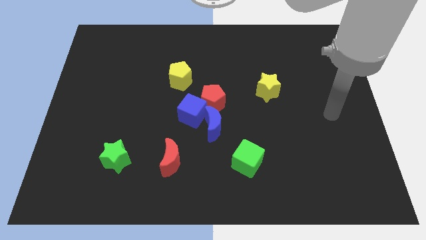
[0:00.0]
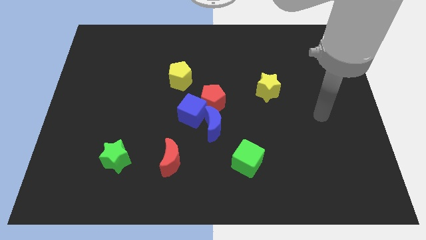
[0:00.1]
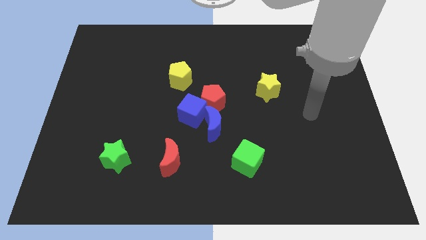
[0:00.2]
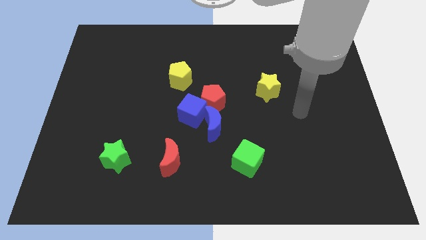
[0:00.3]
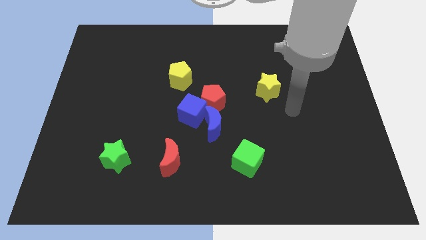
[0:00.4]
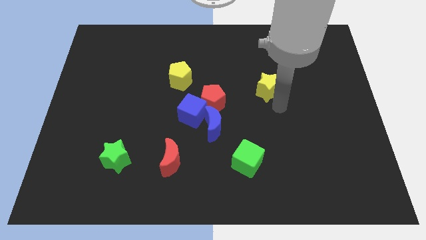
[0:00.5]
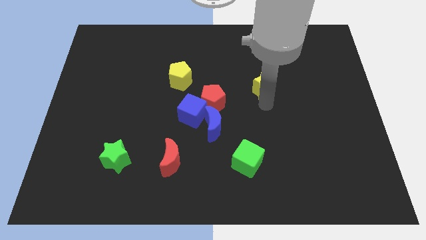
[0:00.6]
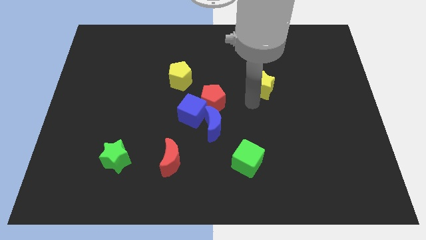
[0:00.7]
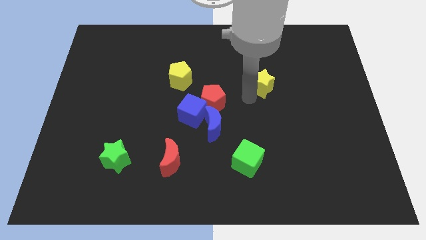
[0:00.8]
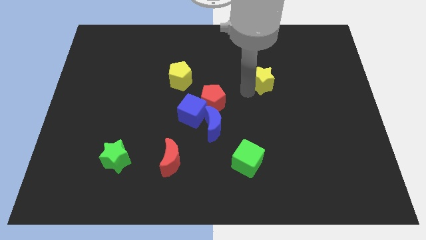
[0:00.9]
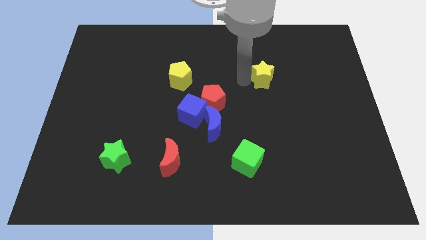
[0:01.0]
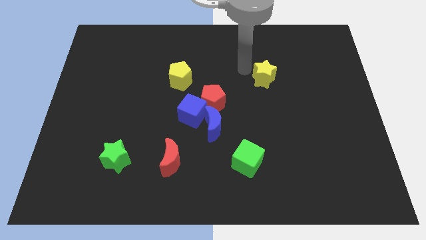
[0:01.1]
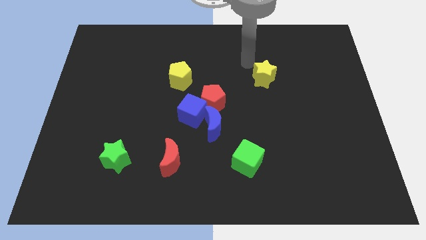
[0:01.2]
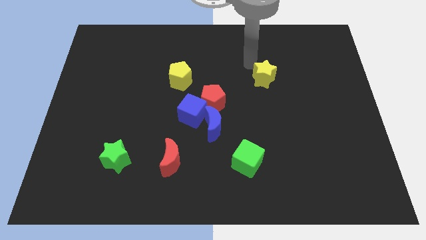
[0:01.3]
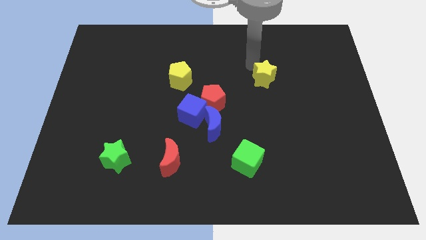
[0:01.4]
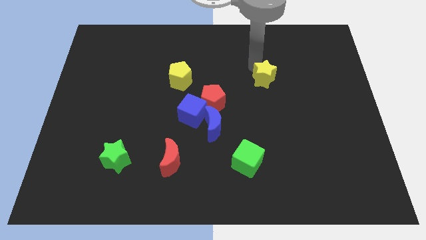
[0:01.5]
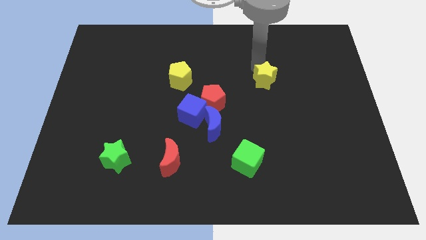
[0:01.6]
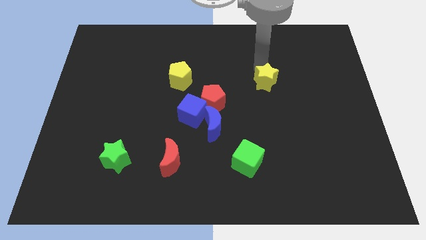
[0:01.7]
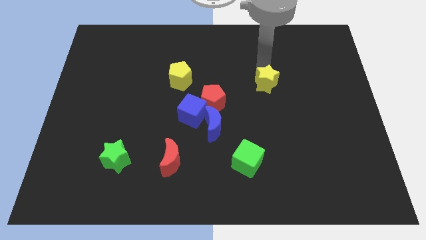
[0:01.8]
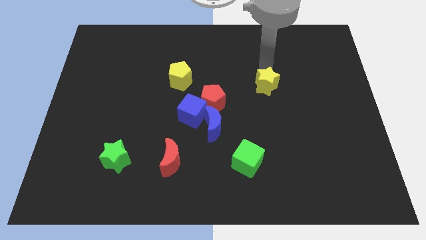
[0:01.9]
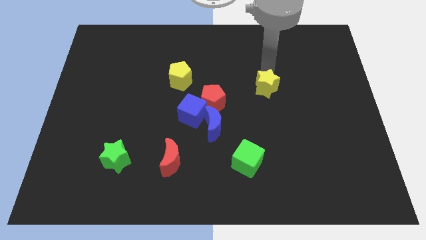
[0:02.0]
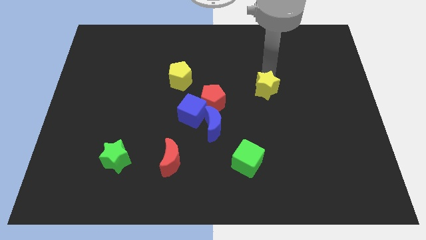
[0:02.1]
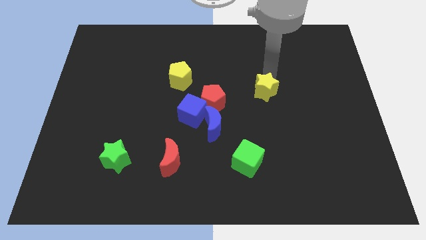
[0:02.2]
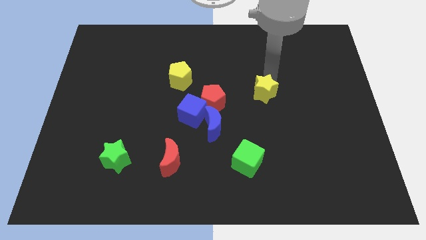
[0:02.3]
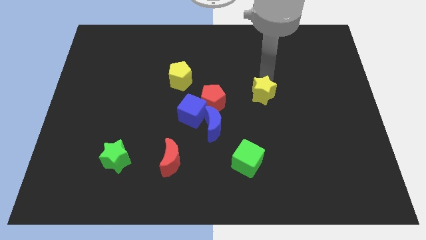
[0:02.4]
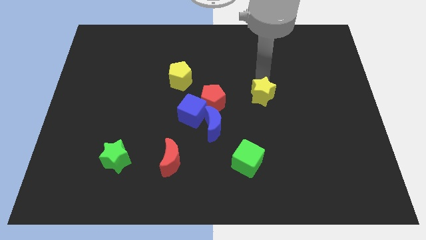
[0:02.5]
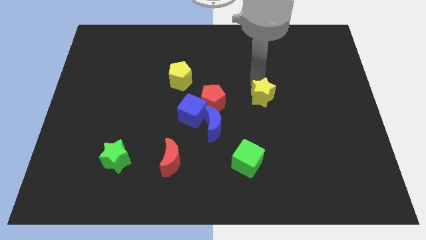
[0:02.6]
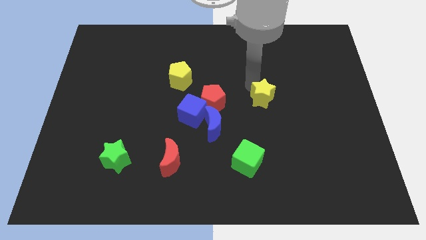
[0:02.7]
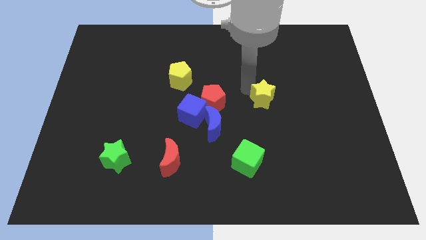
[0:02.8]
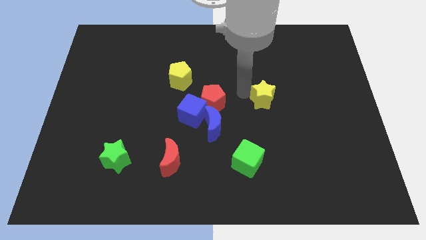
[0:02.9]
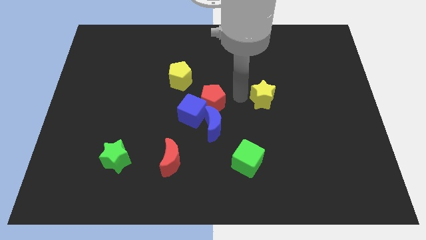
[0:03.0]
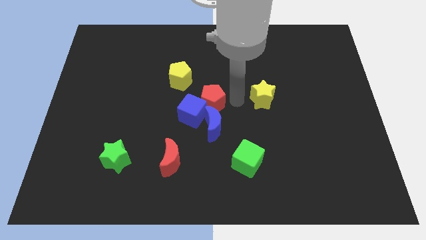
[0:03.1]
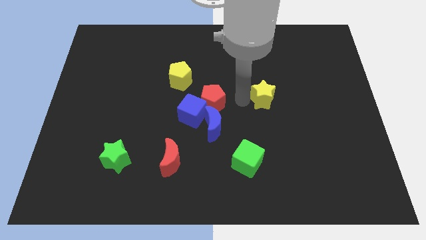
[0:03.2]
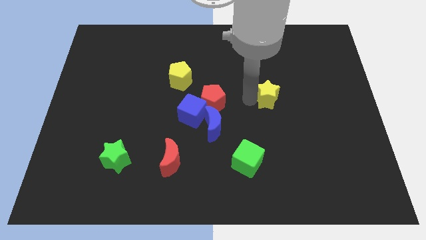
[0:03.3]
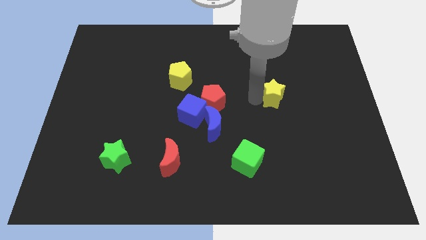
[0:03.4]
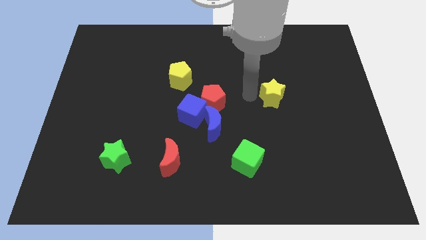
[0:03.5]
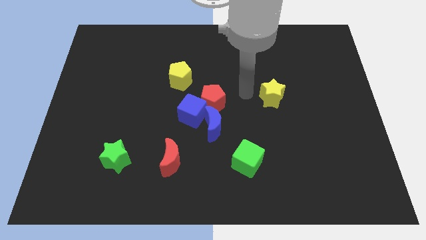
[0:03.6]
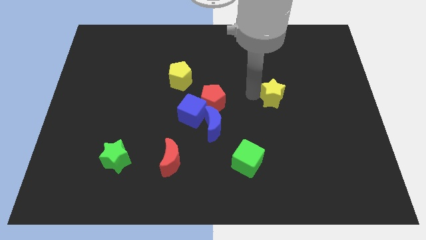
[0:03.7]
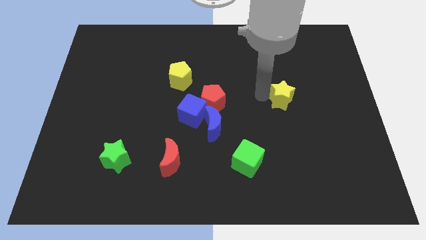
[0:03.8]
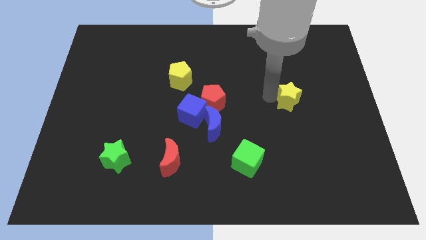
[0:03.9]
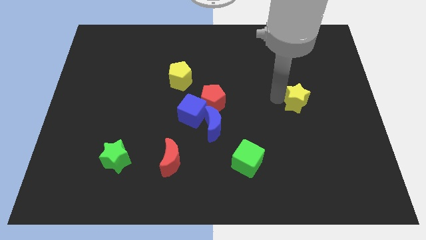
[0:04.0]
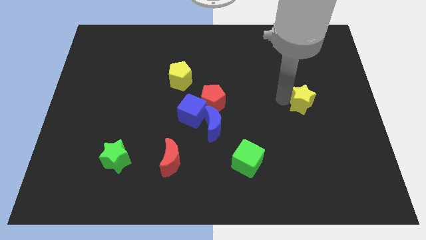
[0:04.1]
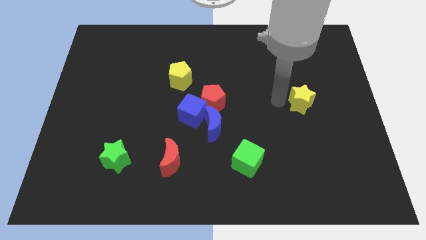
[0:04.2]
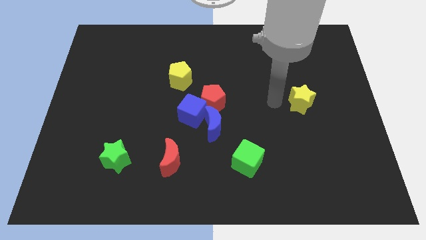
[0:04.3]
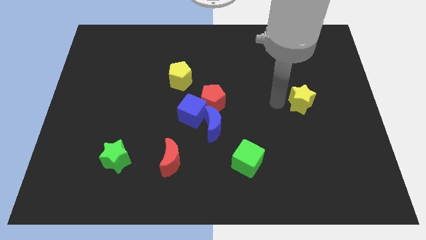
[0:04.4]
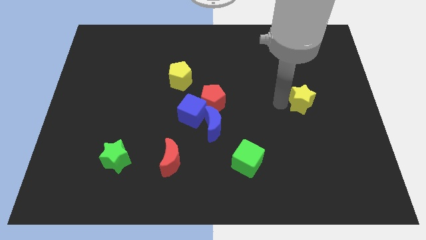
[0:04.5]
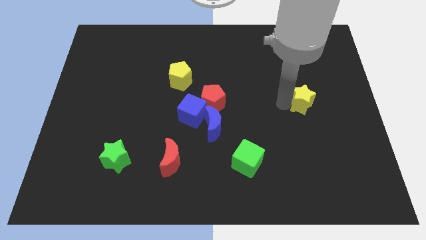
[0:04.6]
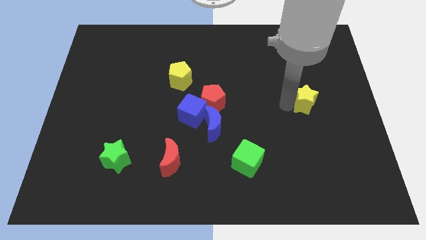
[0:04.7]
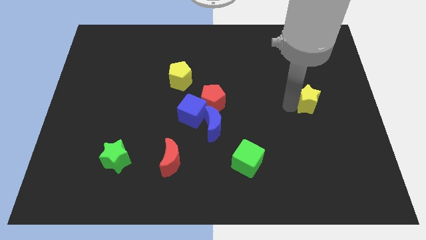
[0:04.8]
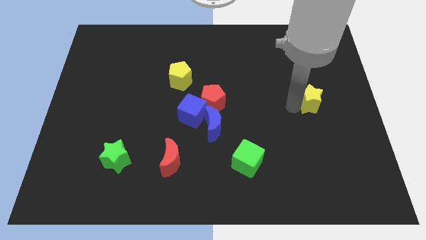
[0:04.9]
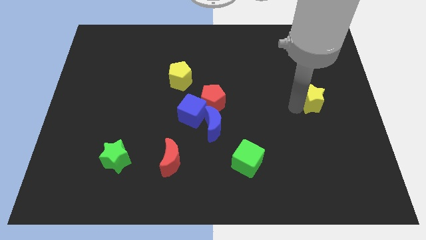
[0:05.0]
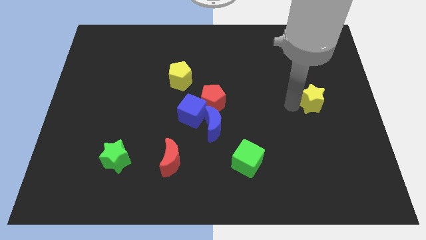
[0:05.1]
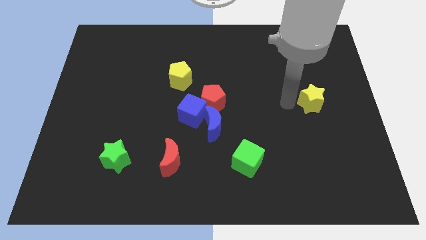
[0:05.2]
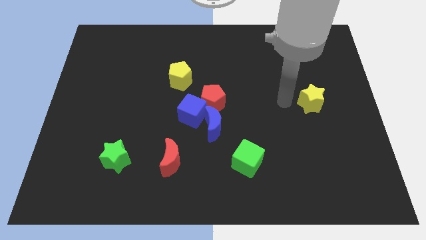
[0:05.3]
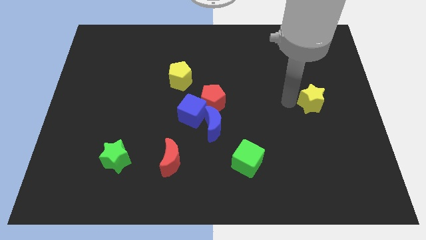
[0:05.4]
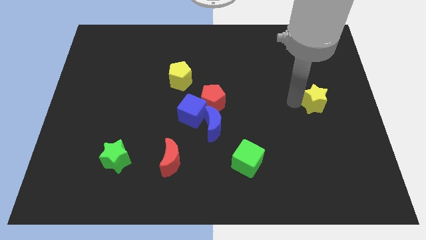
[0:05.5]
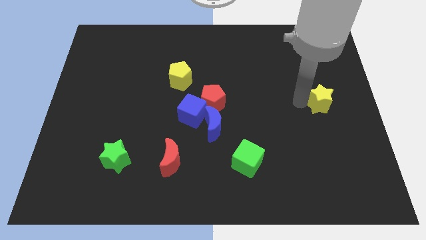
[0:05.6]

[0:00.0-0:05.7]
slide the yellow star to the right side of the board

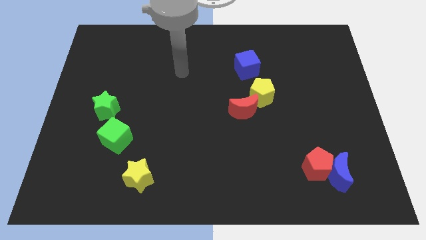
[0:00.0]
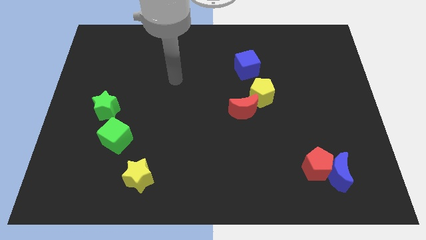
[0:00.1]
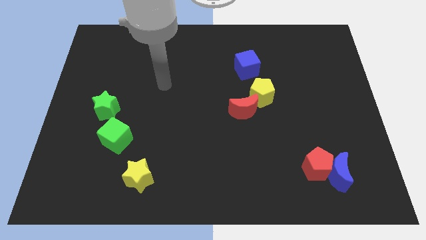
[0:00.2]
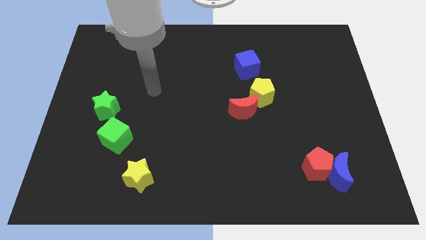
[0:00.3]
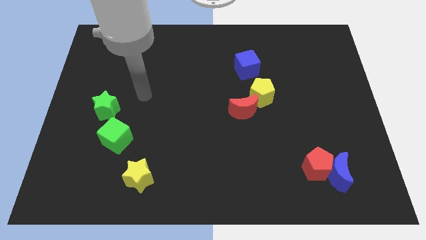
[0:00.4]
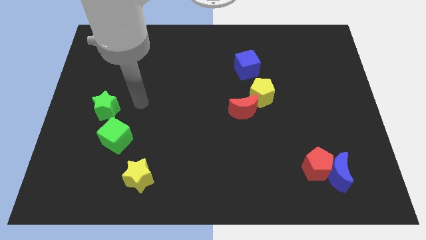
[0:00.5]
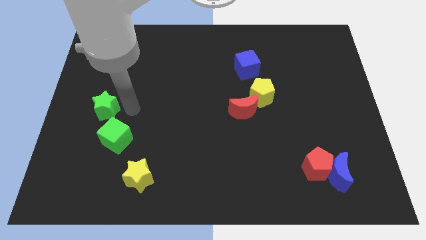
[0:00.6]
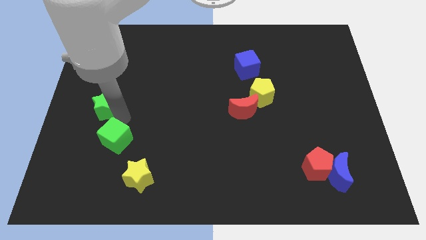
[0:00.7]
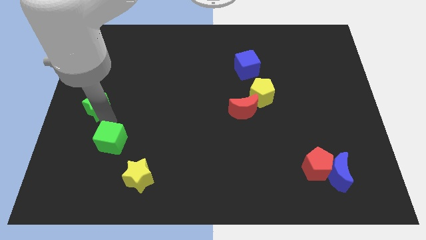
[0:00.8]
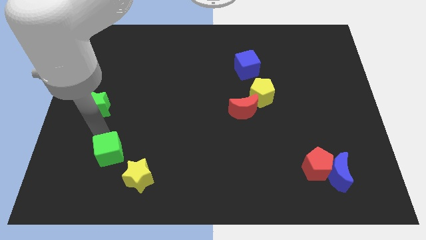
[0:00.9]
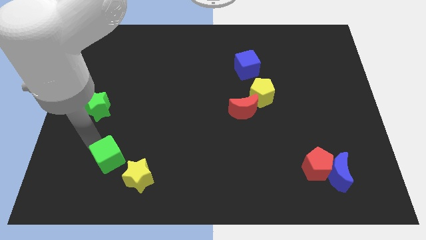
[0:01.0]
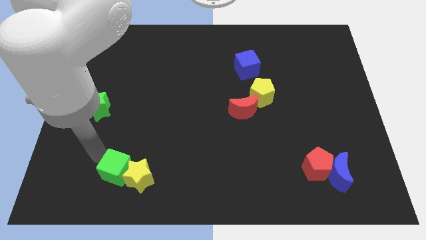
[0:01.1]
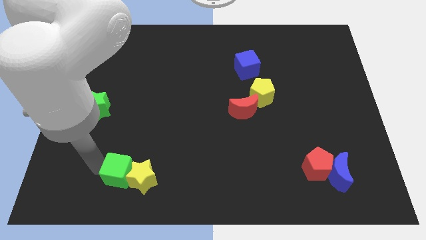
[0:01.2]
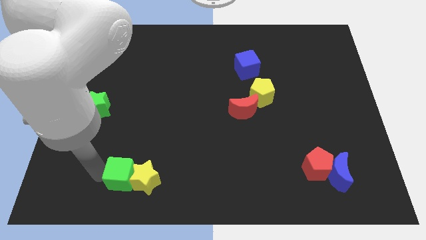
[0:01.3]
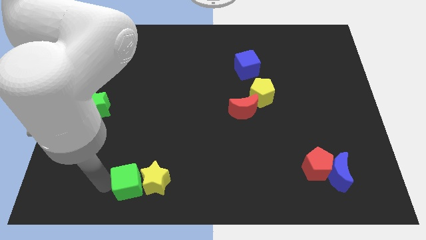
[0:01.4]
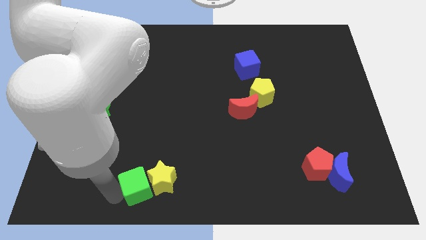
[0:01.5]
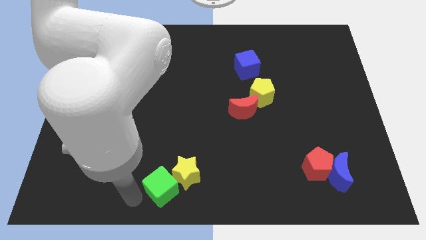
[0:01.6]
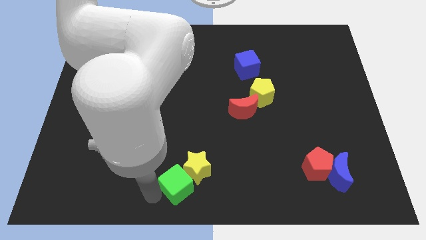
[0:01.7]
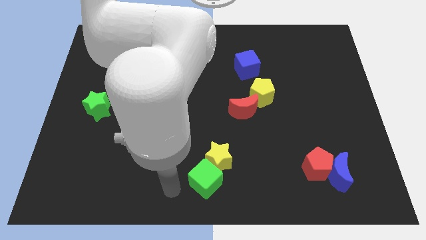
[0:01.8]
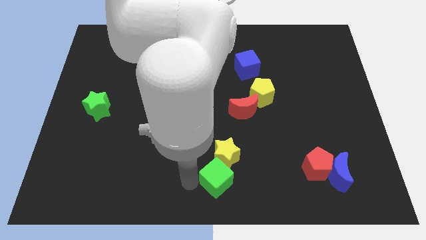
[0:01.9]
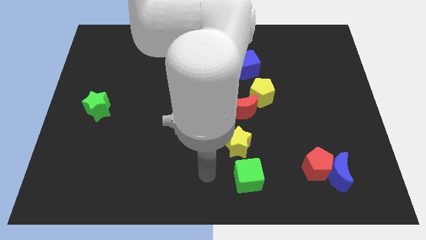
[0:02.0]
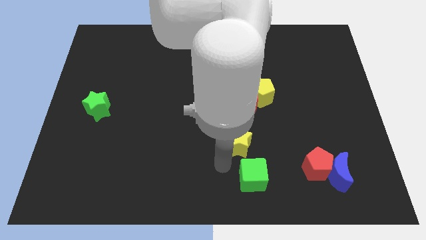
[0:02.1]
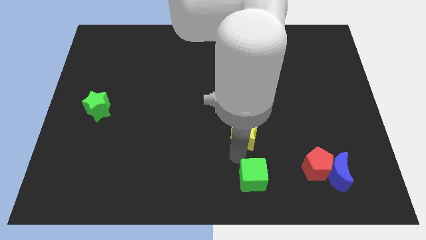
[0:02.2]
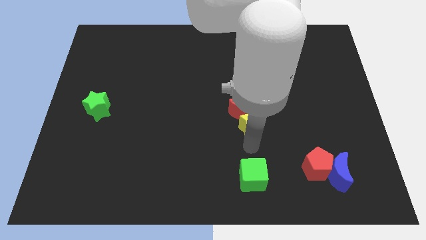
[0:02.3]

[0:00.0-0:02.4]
put the yellow star to the middle of the board
